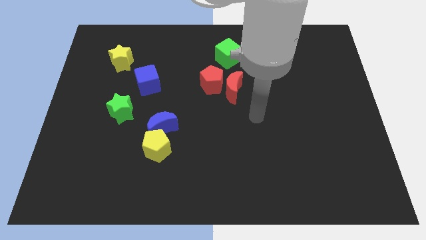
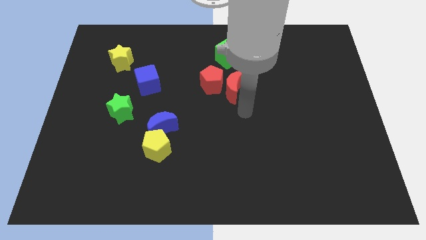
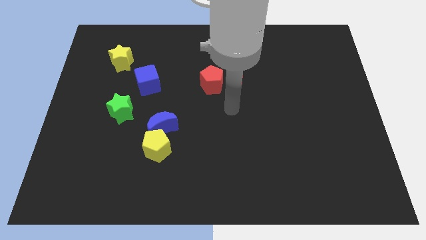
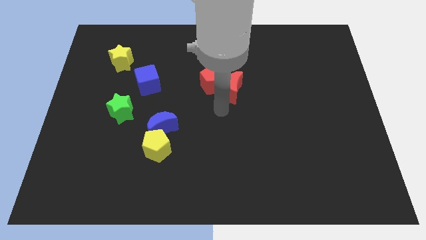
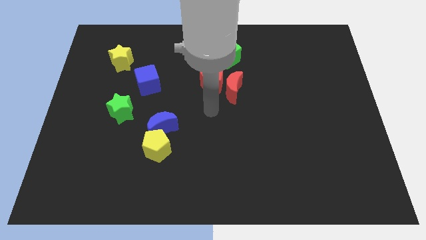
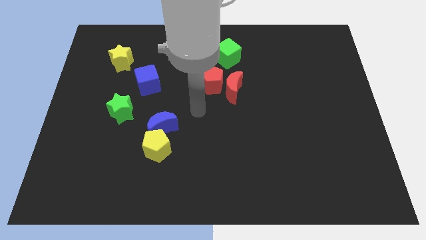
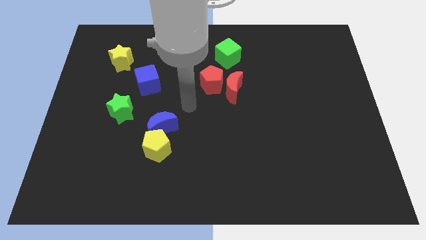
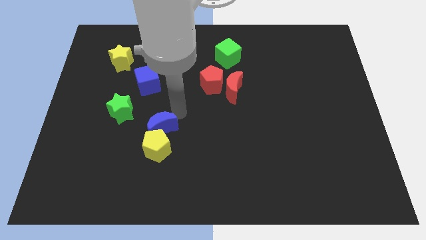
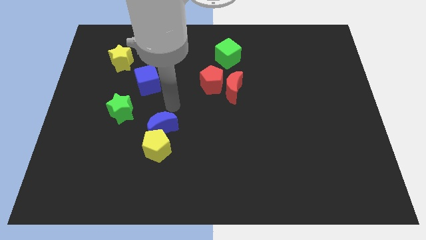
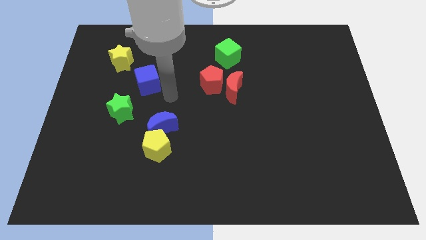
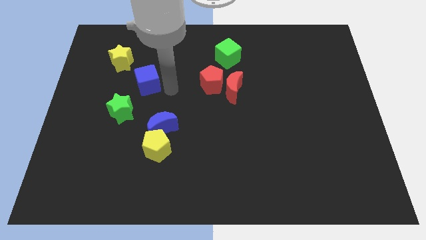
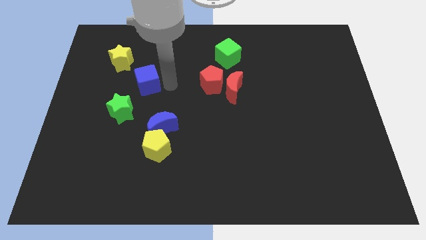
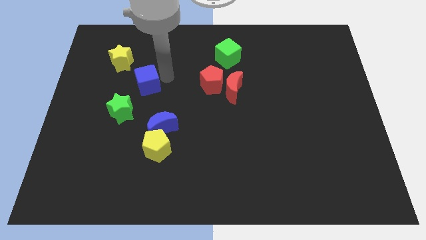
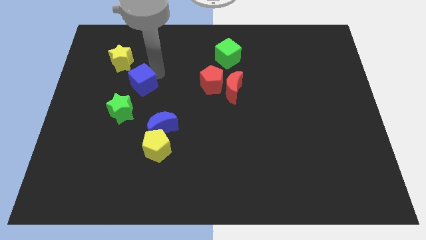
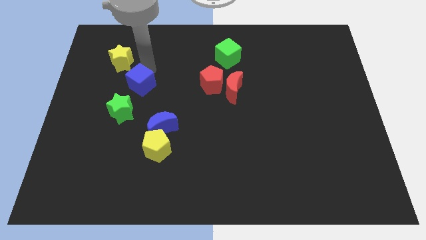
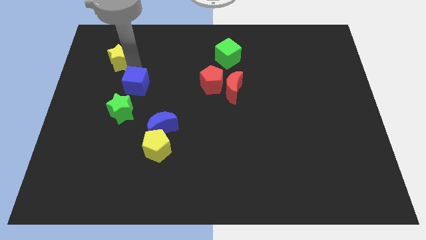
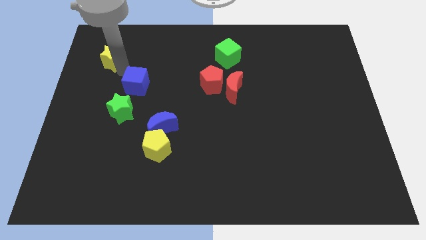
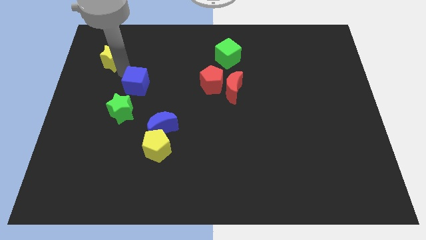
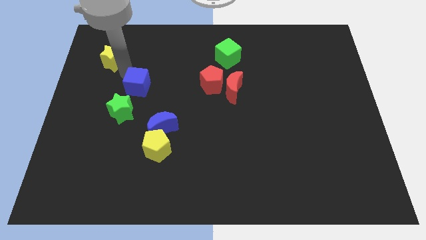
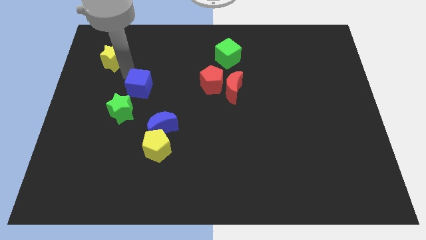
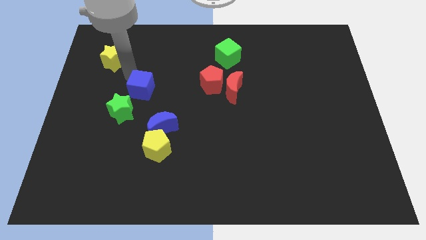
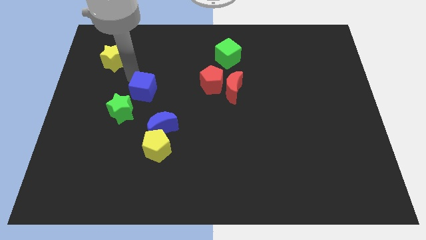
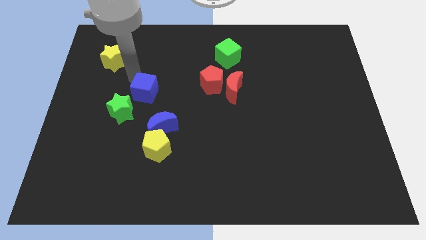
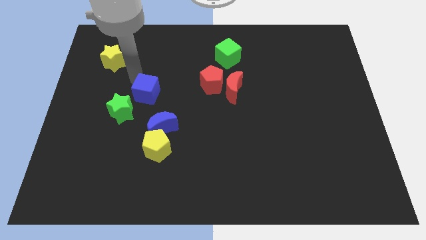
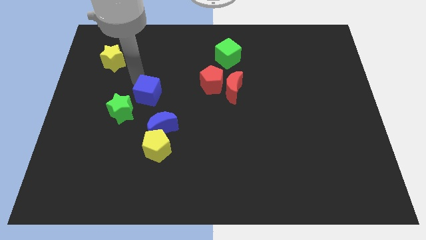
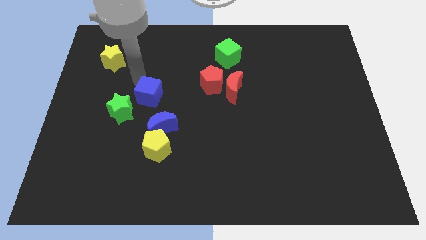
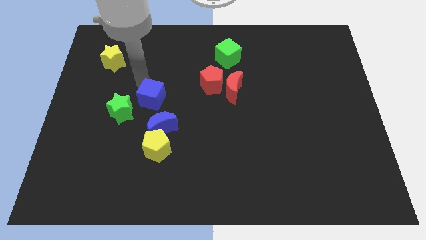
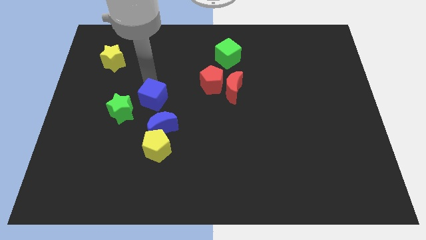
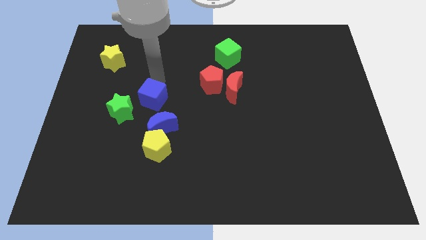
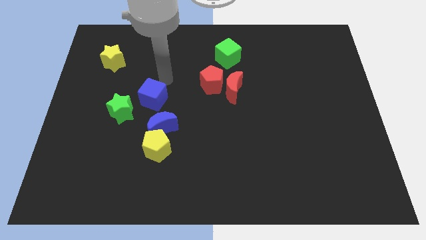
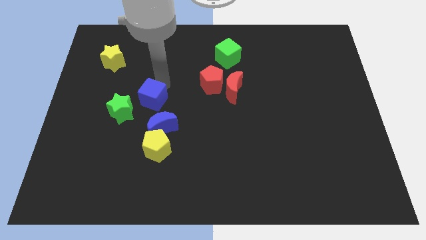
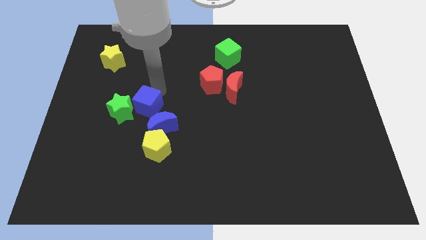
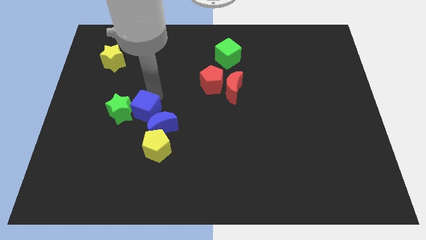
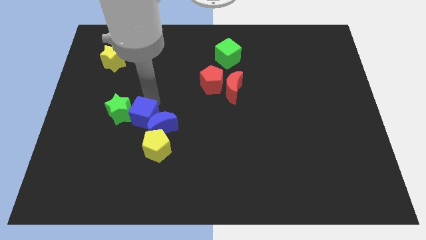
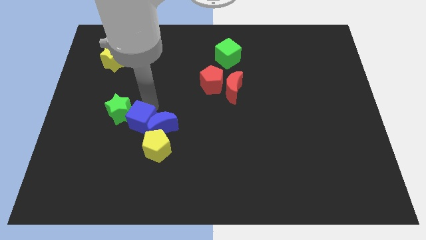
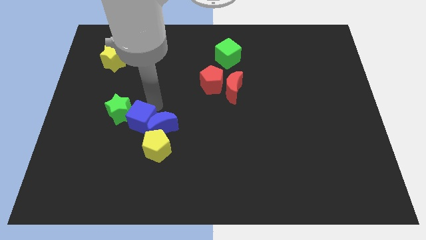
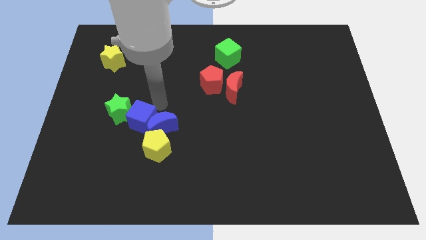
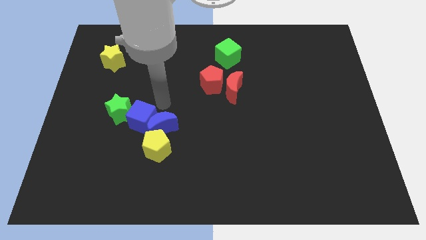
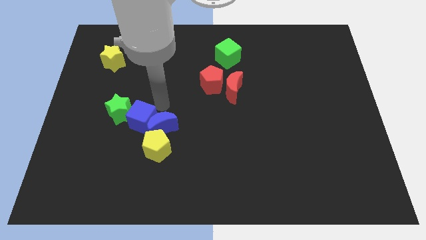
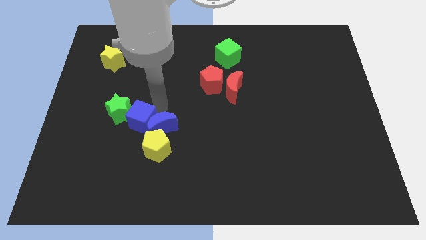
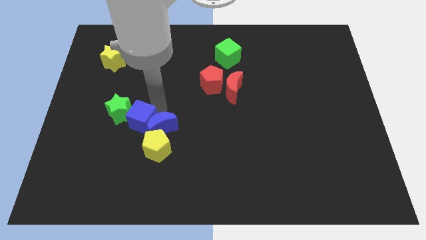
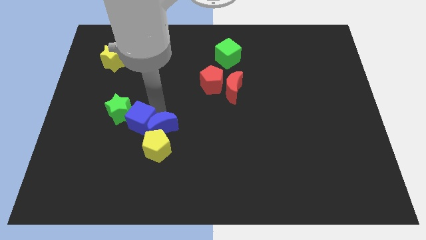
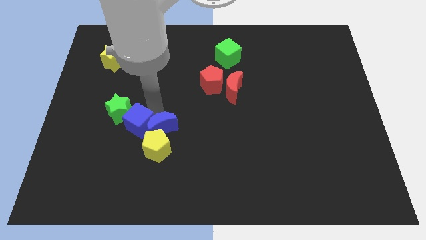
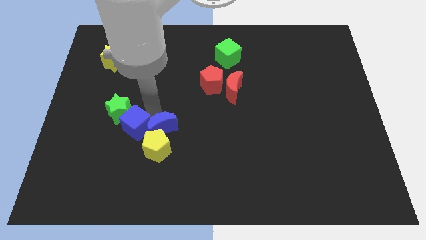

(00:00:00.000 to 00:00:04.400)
move the blue cube below the green star

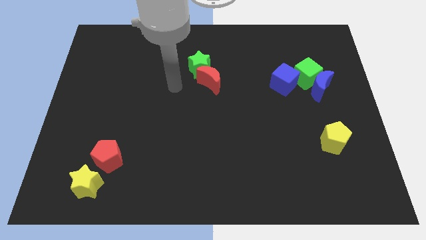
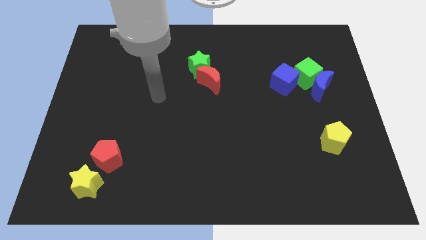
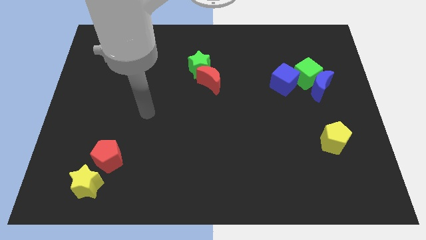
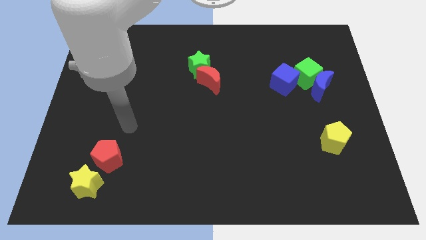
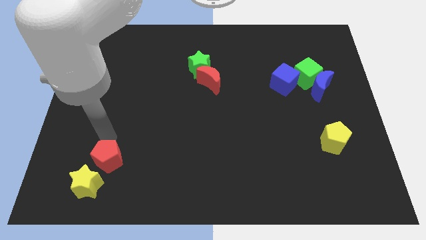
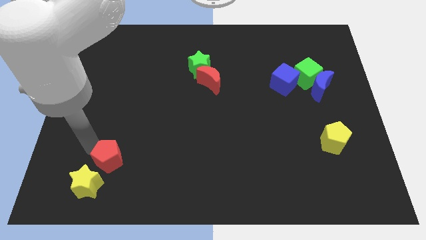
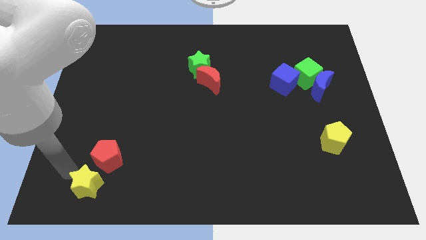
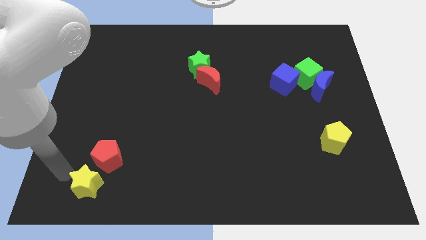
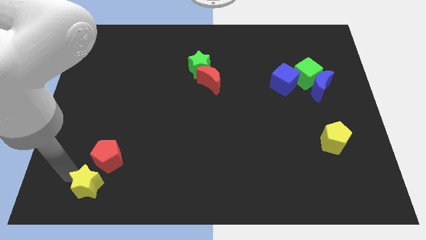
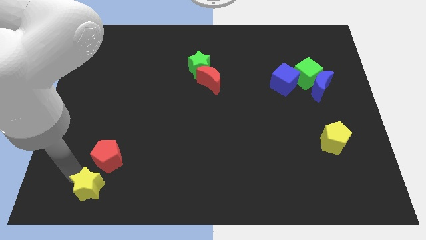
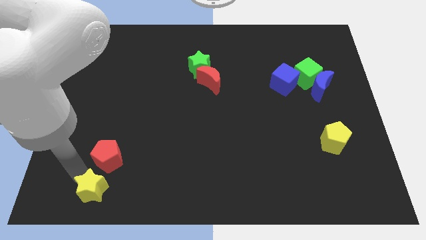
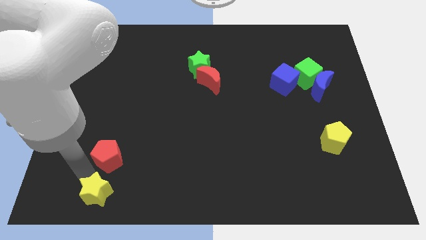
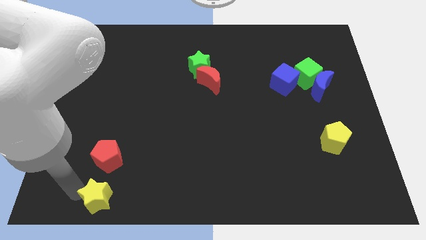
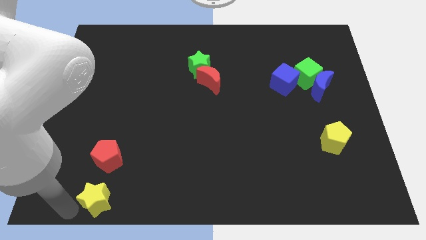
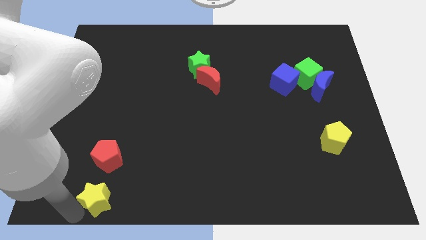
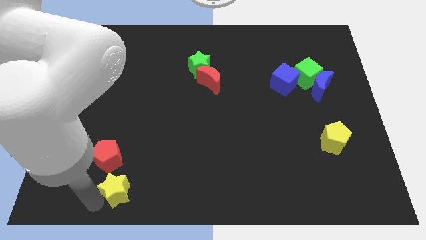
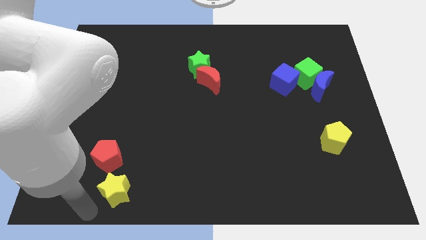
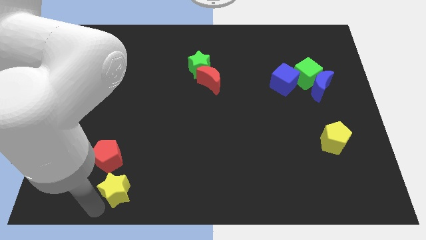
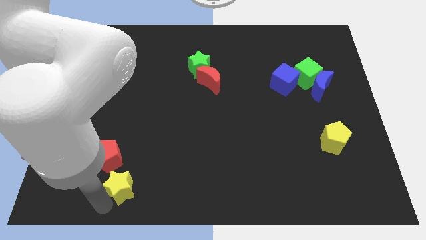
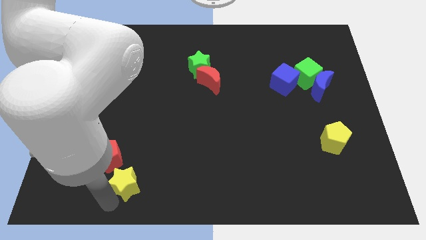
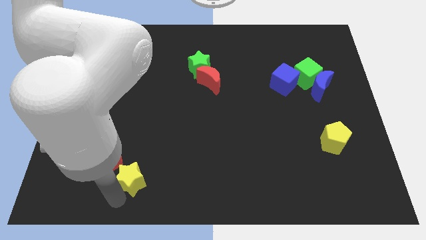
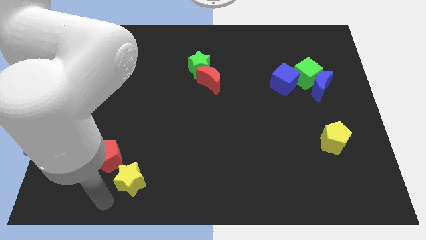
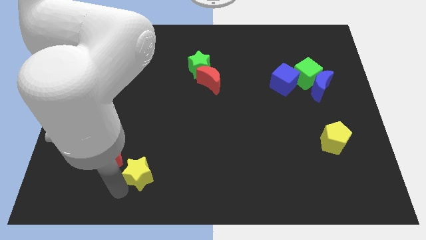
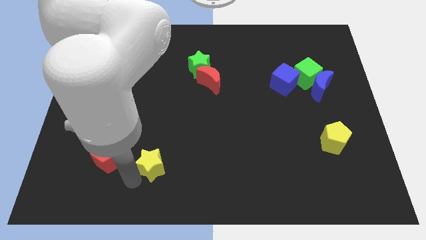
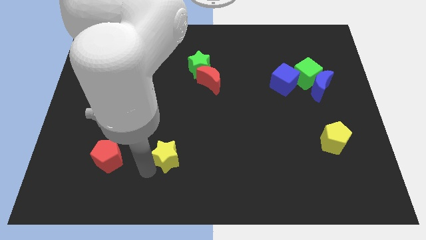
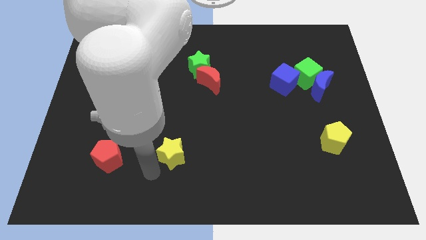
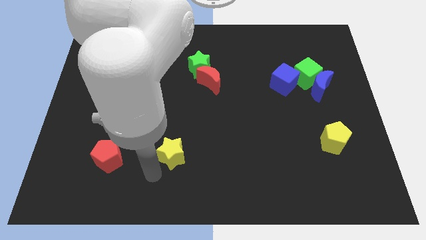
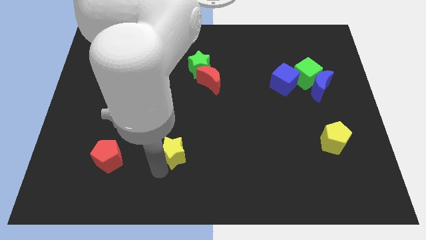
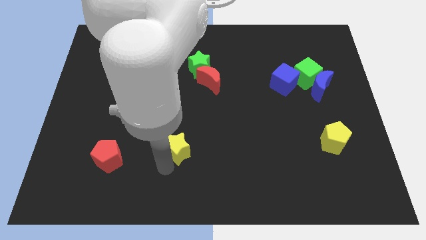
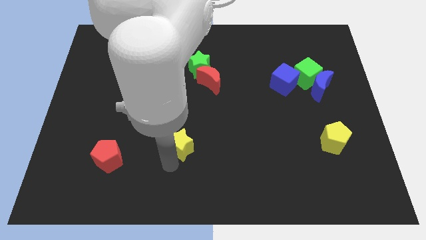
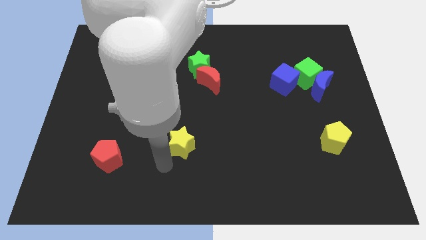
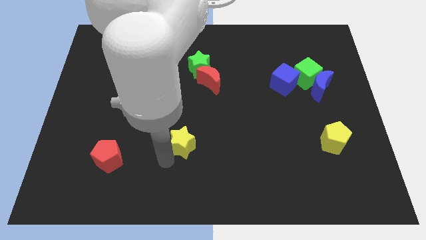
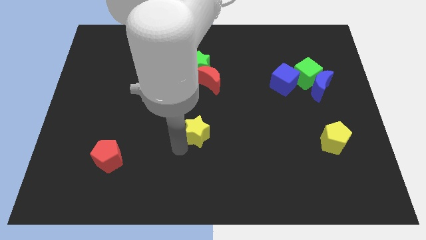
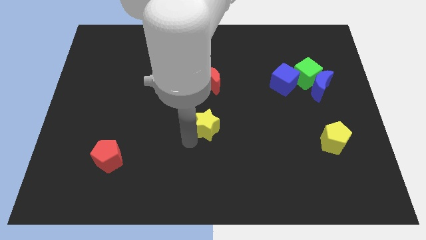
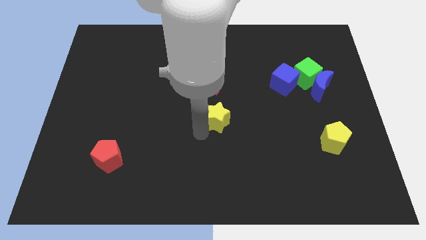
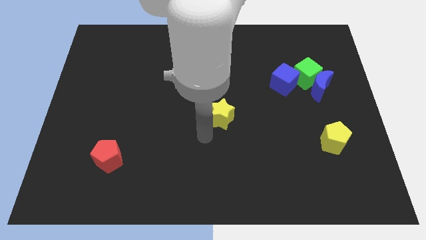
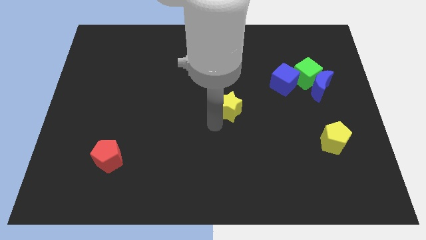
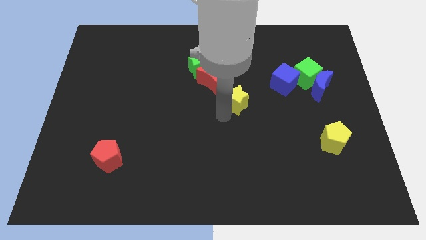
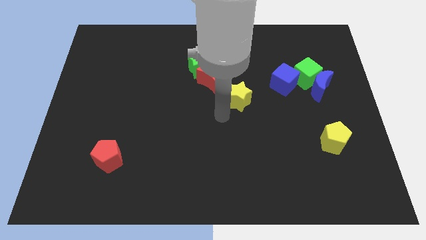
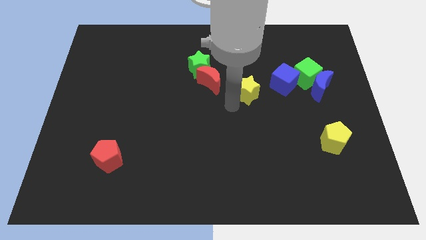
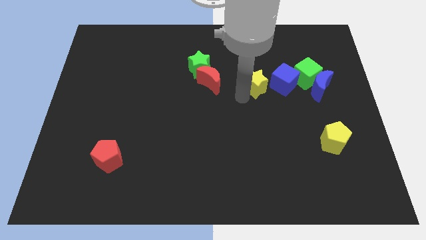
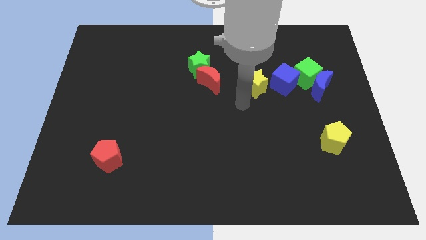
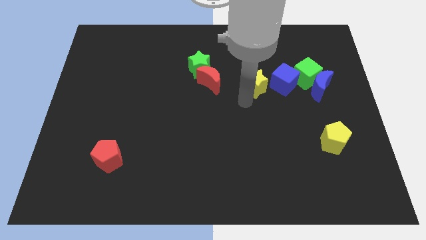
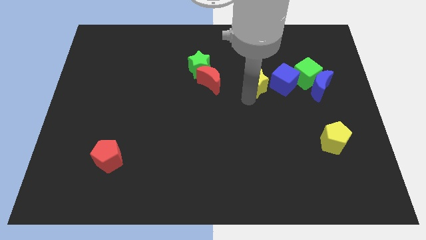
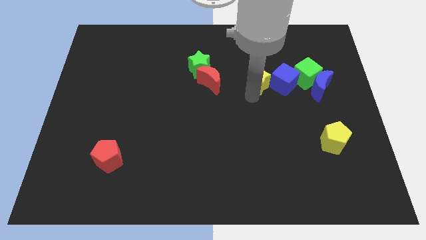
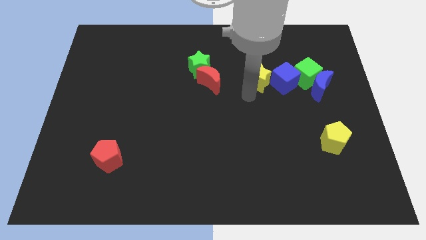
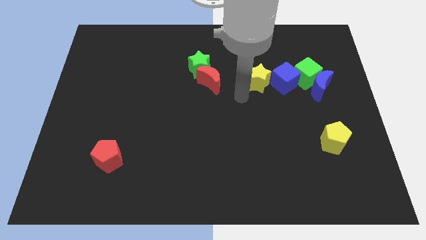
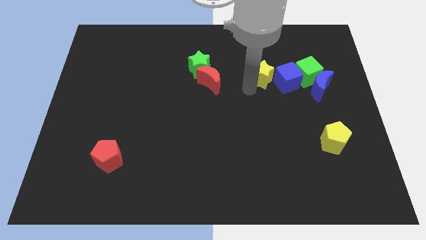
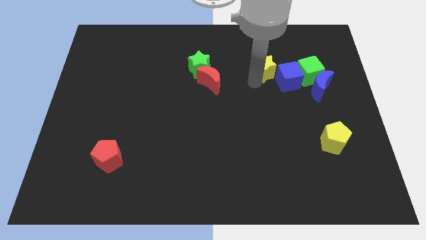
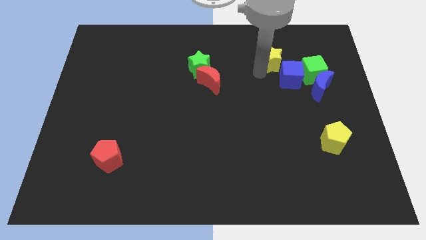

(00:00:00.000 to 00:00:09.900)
move the yellow star diagonally up and to the left of the green cube
